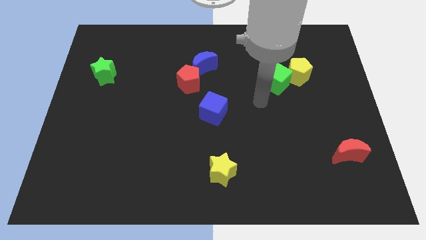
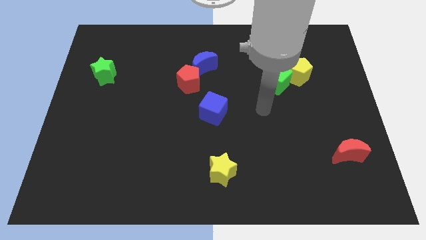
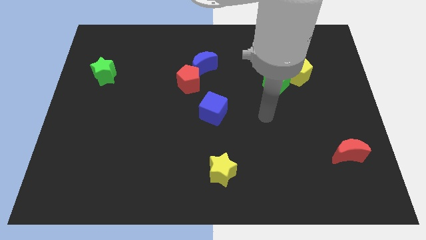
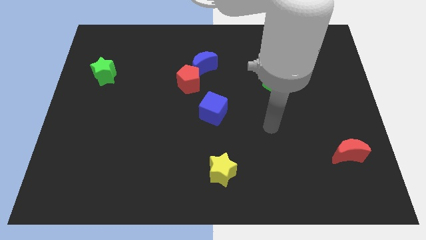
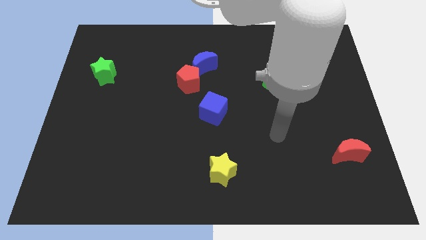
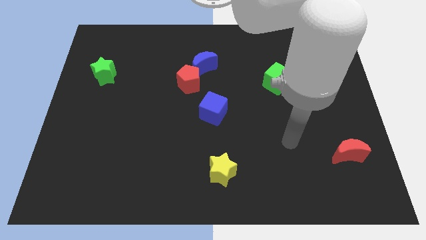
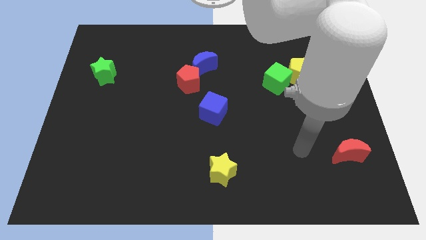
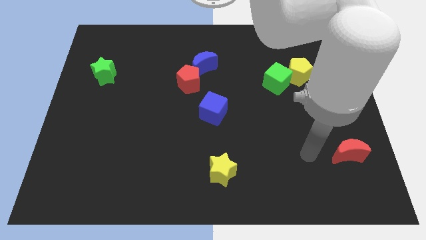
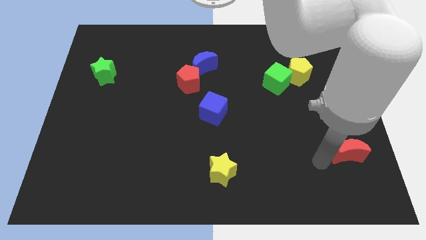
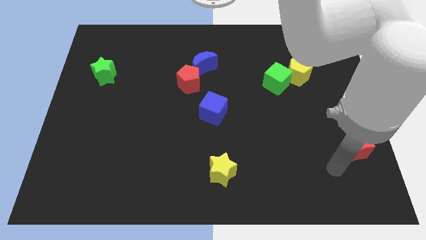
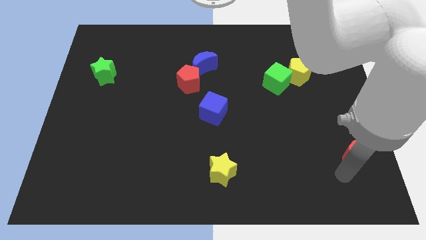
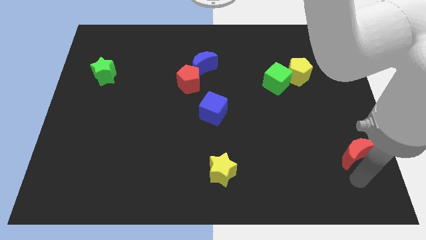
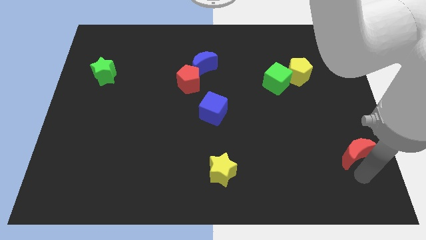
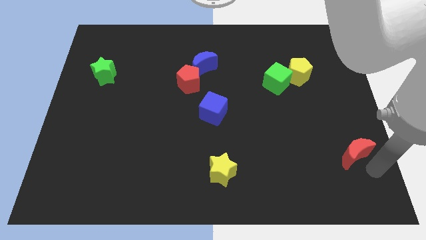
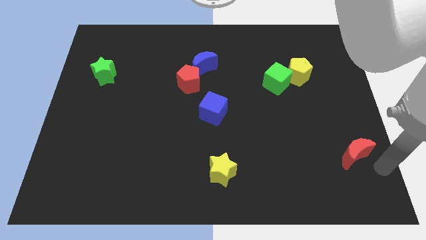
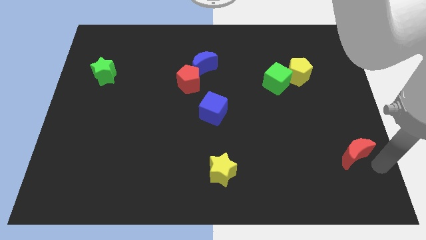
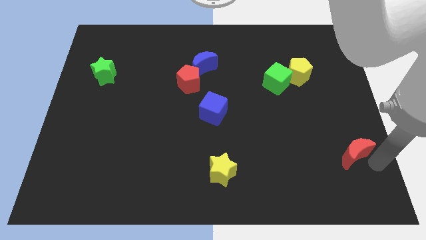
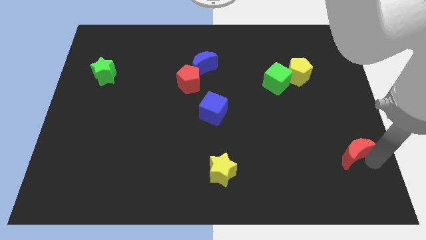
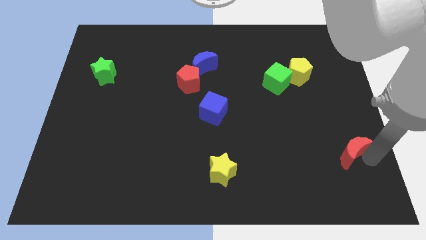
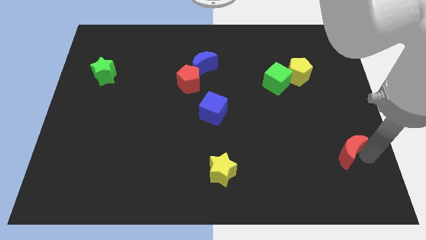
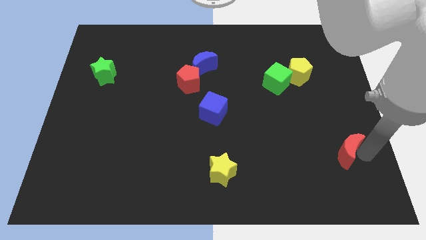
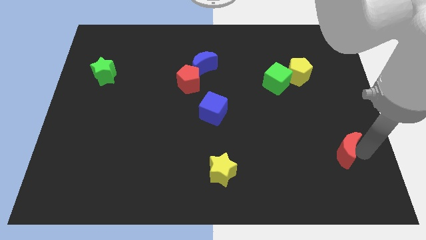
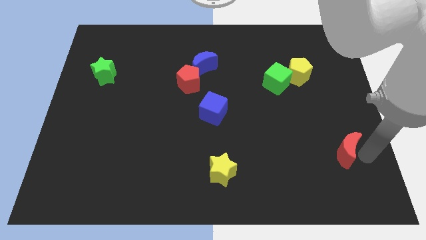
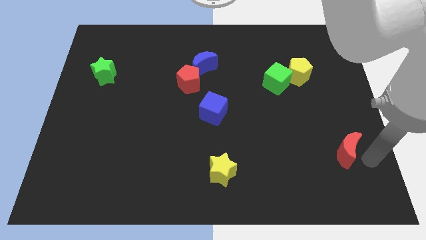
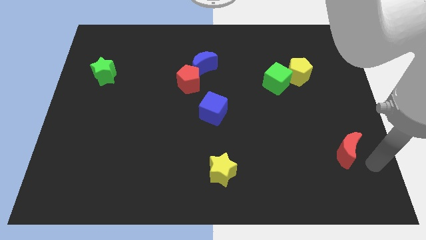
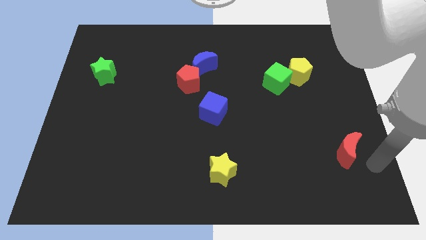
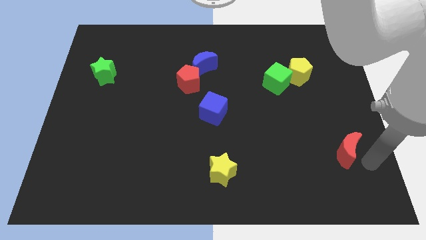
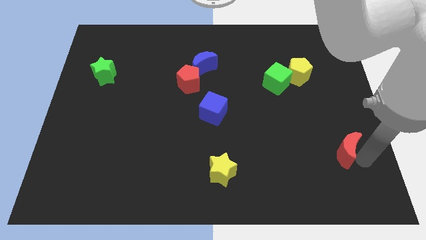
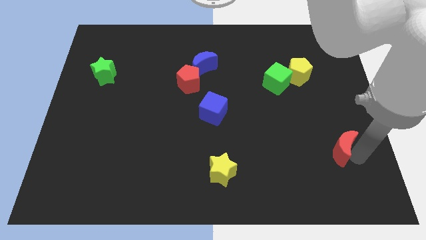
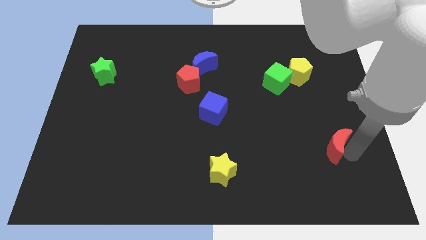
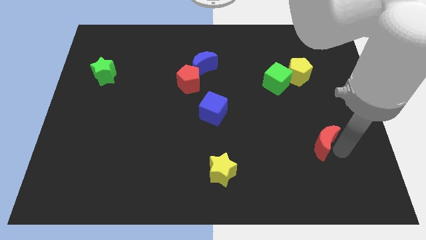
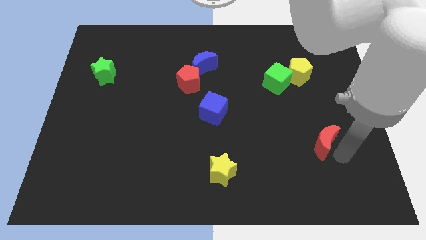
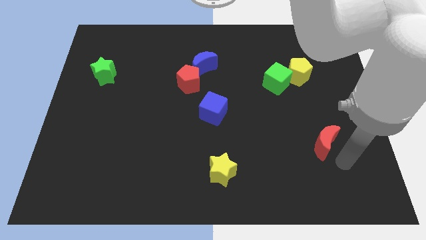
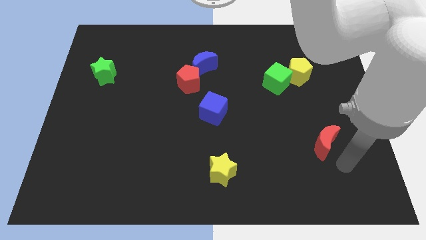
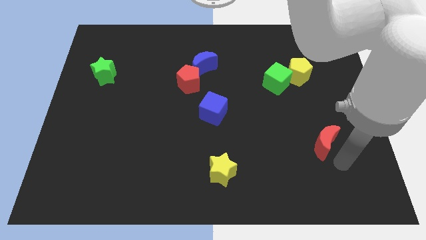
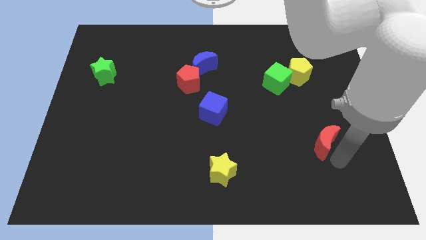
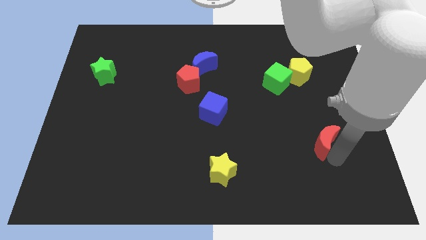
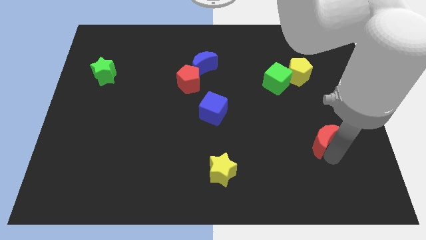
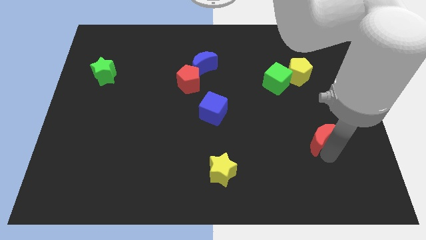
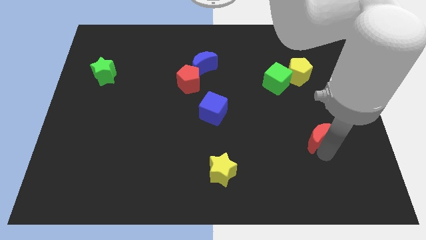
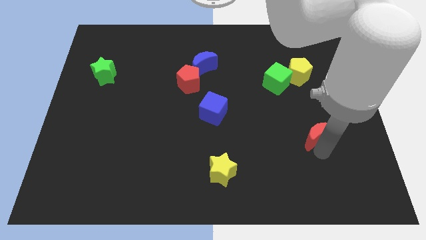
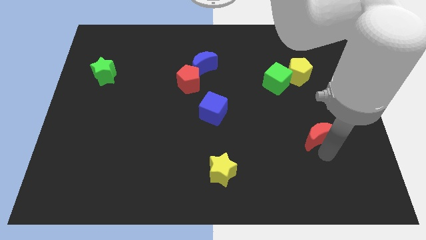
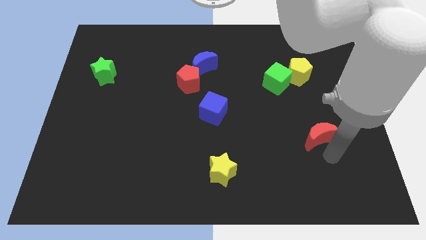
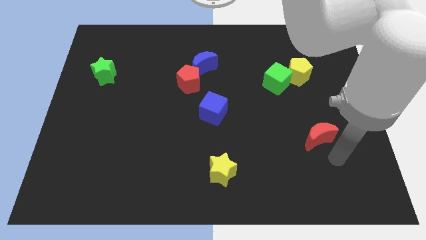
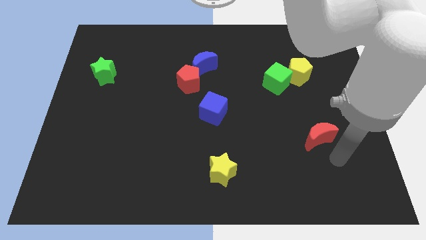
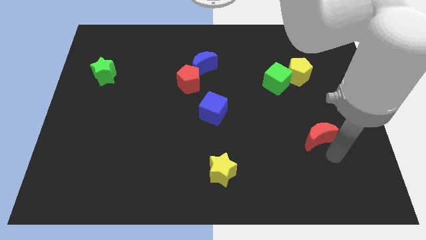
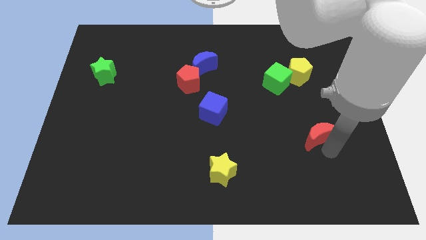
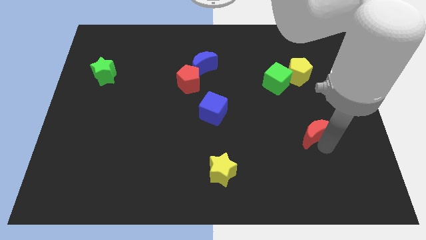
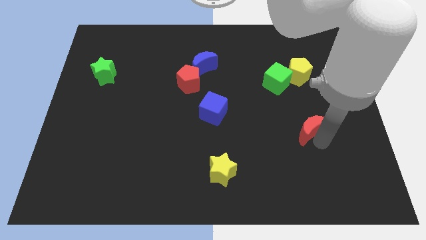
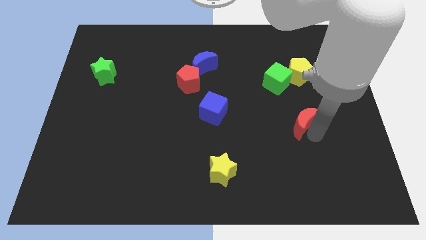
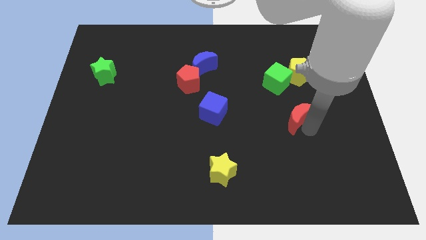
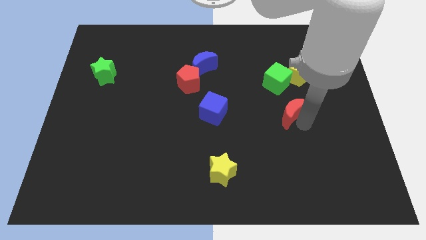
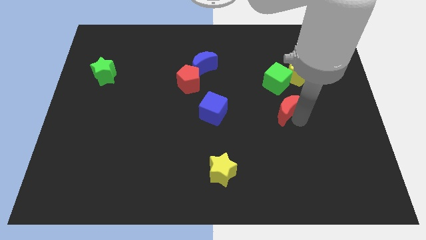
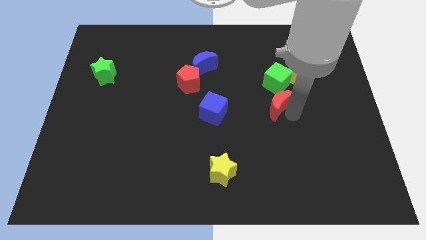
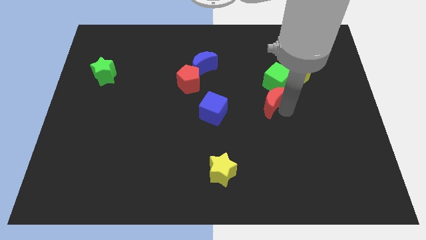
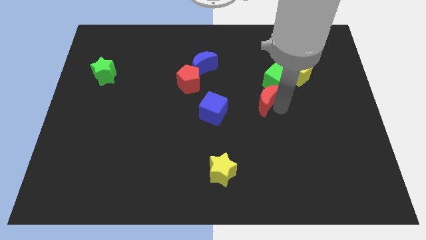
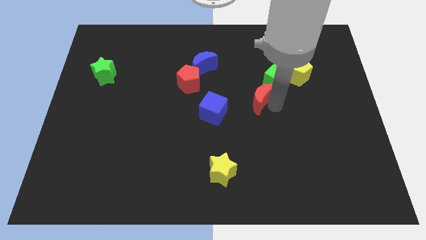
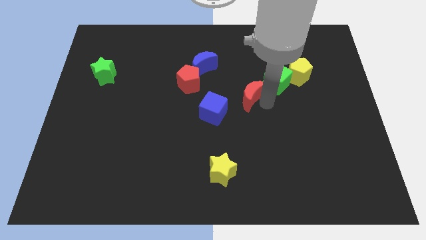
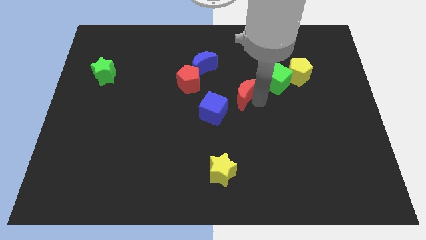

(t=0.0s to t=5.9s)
put the red moon right of the red pentagon

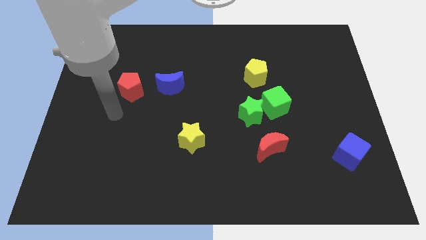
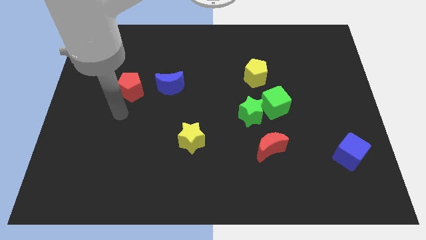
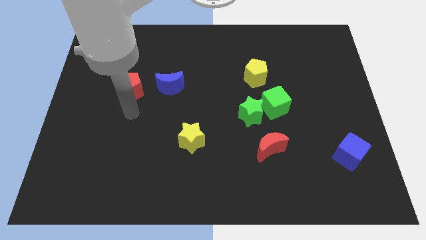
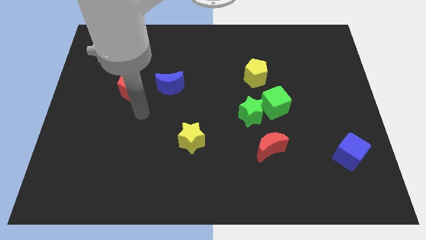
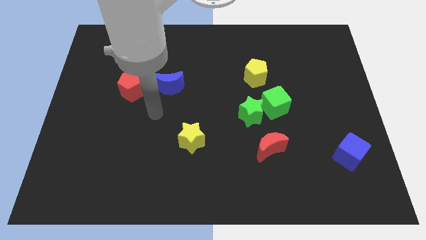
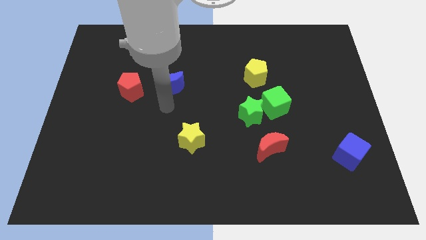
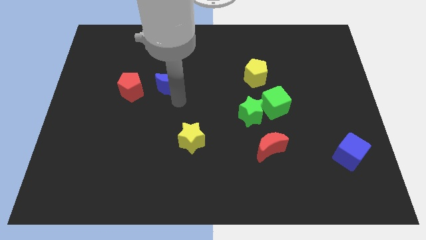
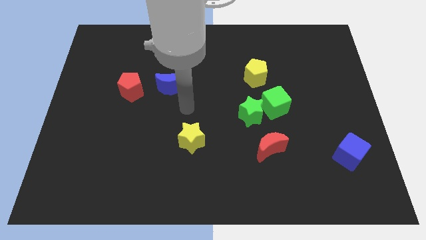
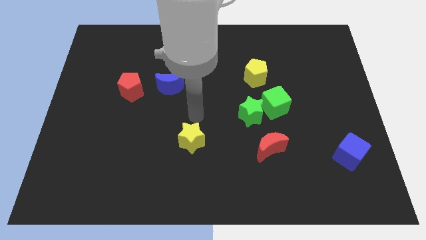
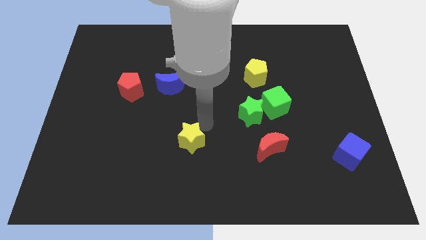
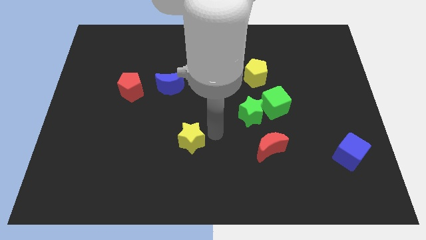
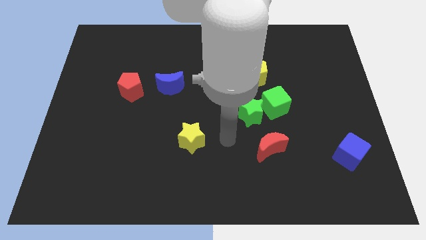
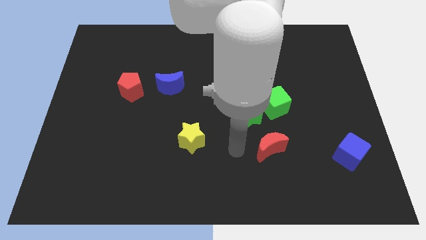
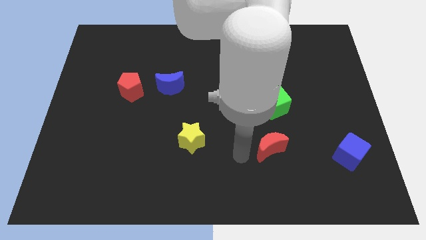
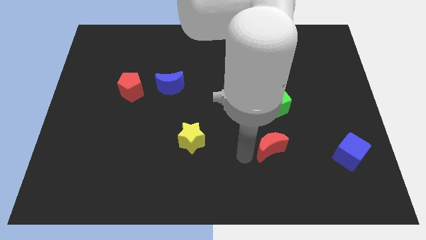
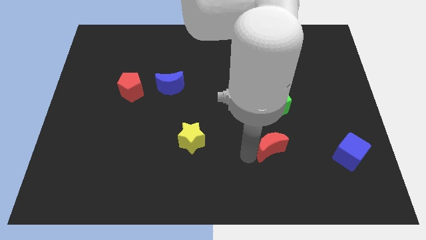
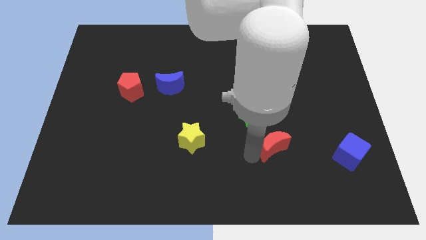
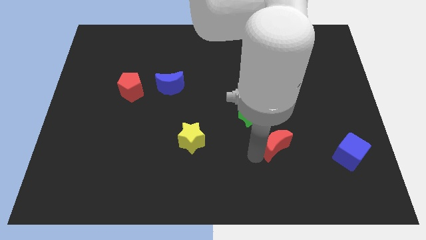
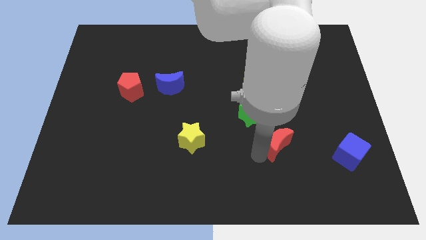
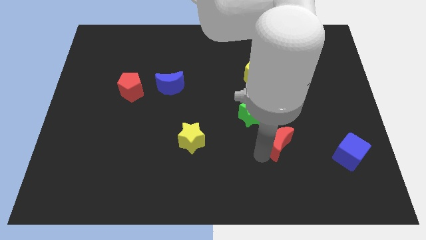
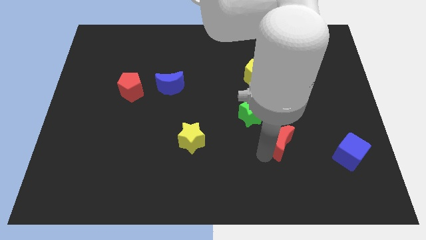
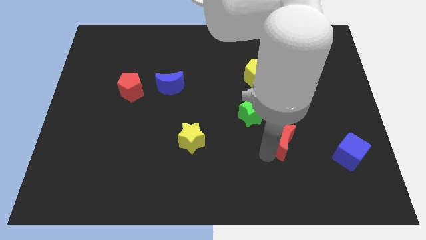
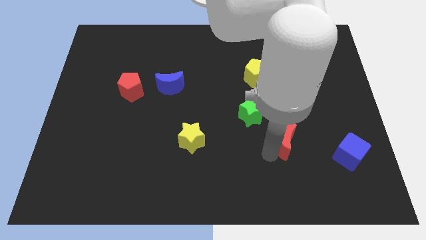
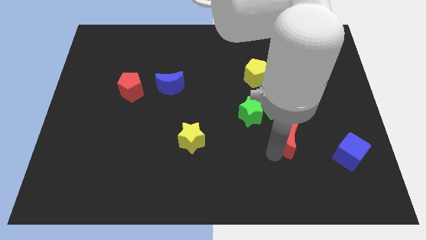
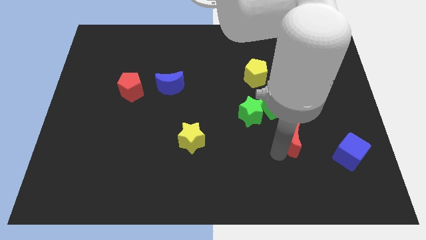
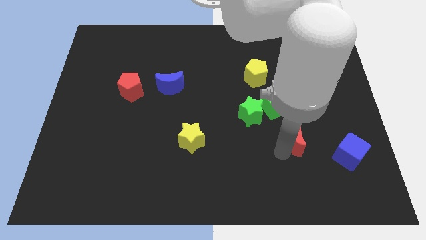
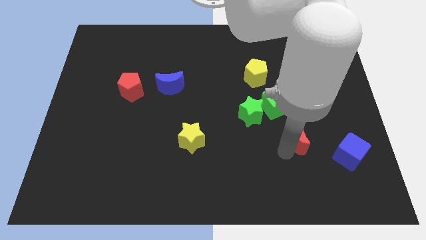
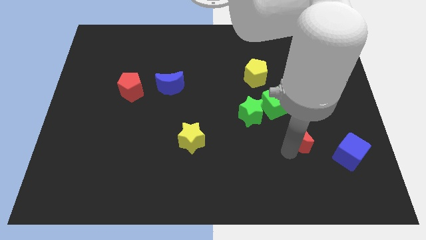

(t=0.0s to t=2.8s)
slide the red moon diagonally up and to the left of the blue cube
